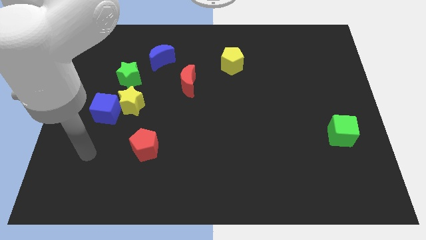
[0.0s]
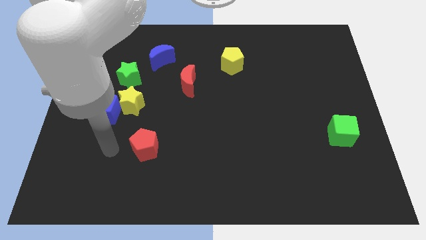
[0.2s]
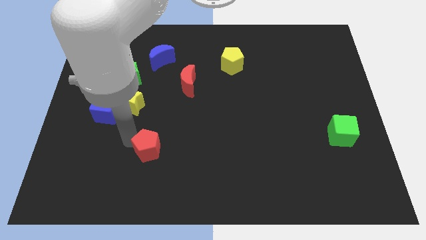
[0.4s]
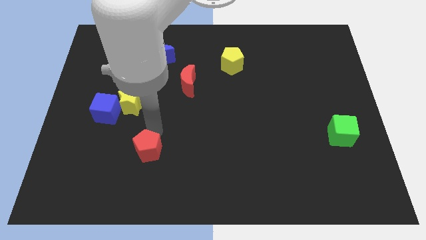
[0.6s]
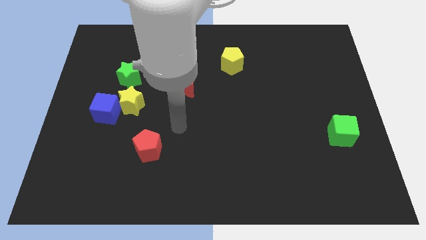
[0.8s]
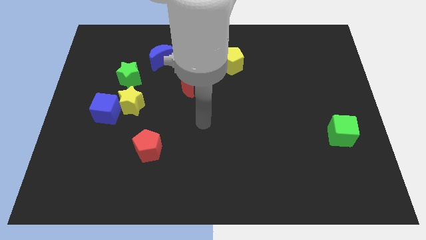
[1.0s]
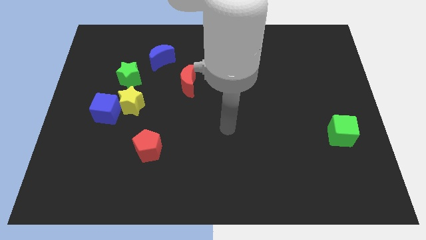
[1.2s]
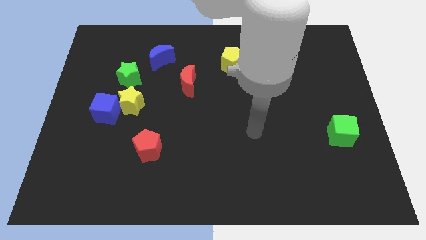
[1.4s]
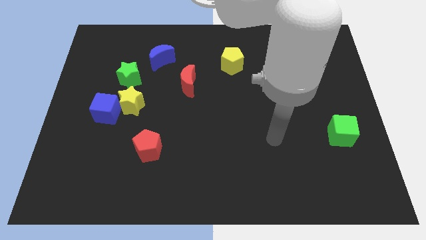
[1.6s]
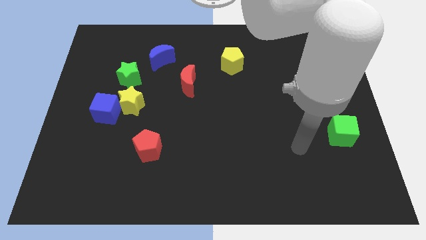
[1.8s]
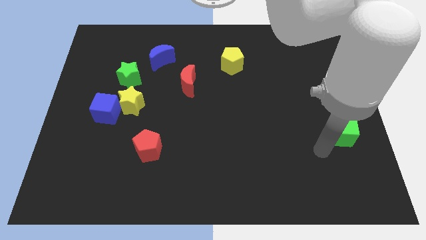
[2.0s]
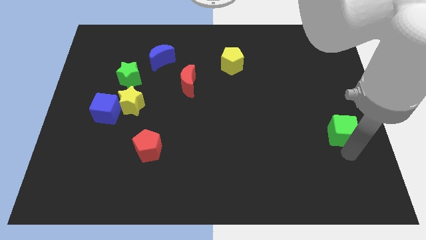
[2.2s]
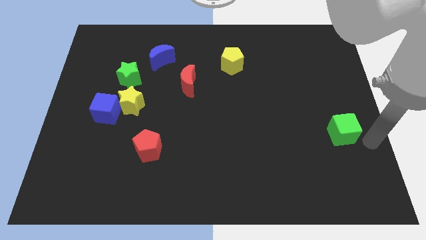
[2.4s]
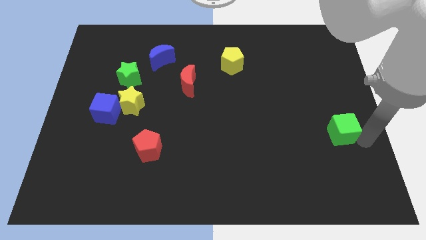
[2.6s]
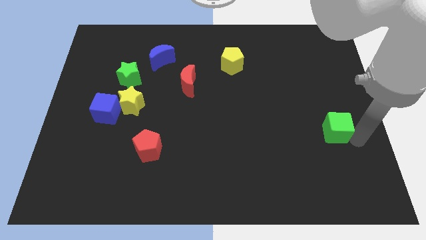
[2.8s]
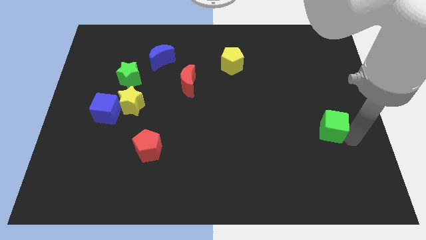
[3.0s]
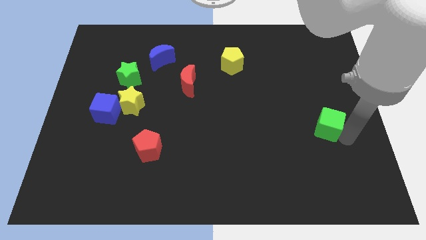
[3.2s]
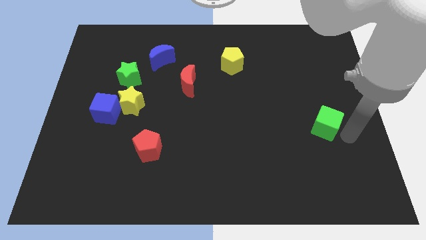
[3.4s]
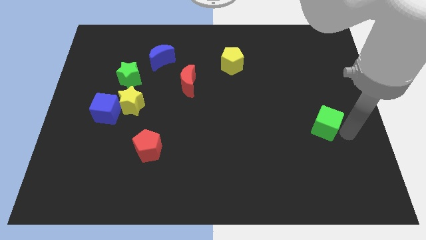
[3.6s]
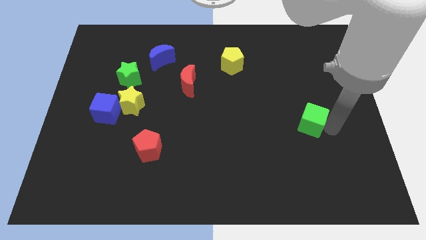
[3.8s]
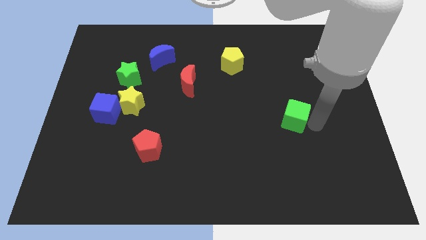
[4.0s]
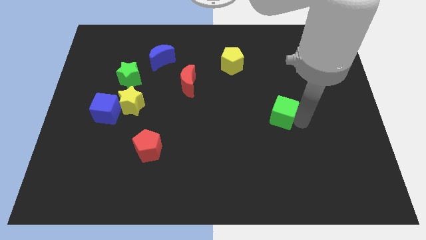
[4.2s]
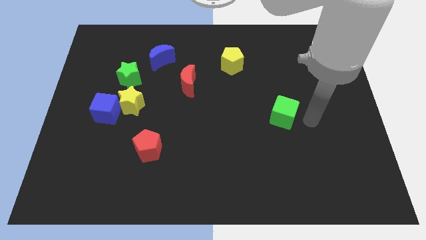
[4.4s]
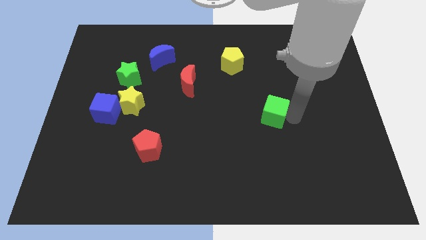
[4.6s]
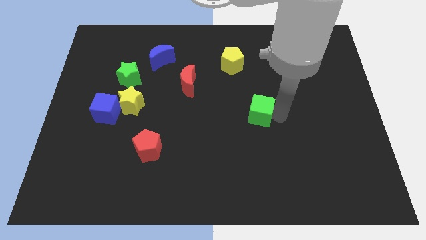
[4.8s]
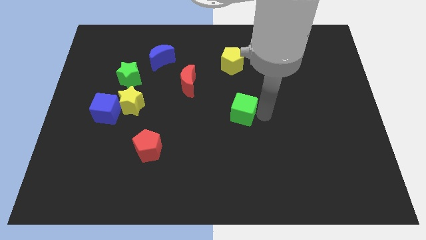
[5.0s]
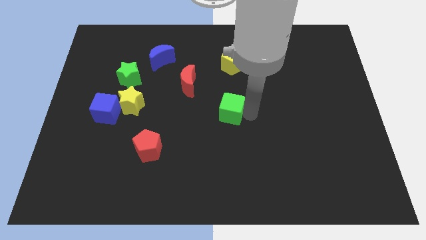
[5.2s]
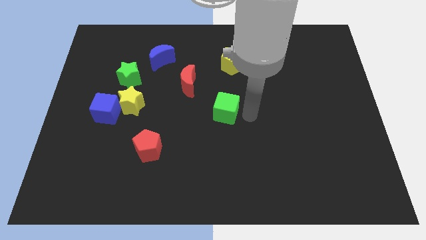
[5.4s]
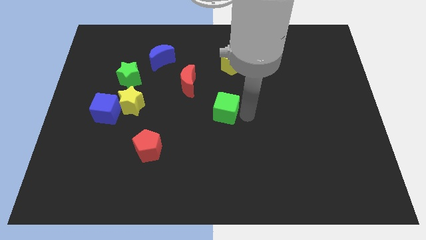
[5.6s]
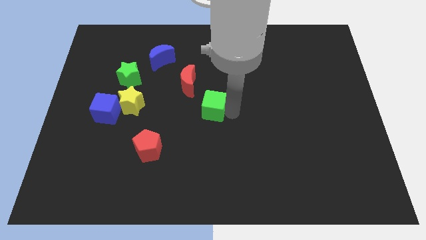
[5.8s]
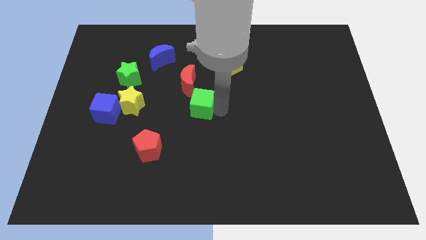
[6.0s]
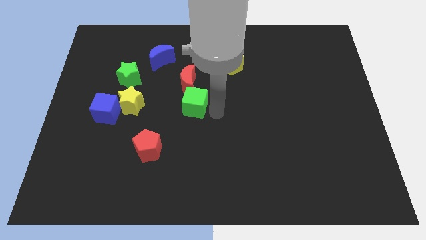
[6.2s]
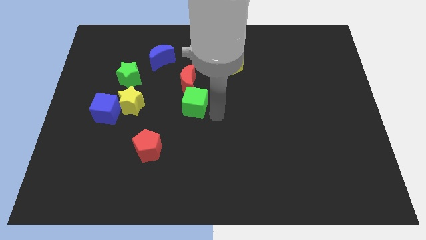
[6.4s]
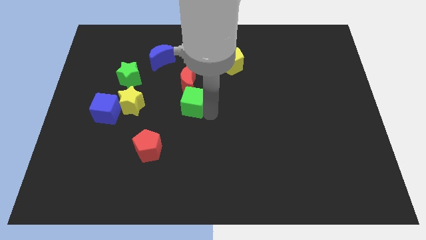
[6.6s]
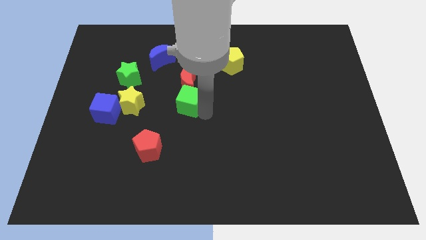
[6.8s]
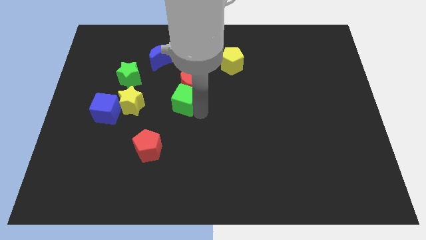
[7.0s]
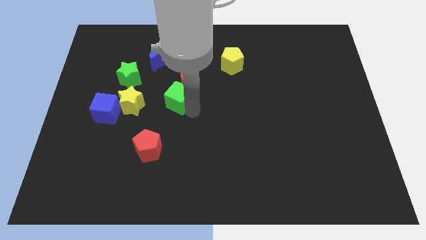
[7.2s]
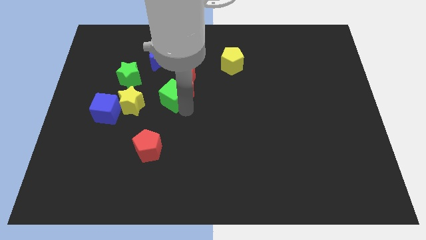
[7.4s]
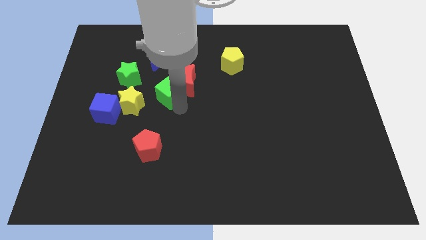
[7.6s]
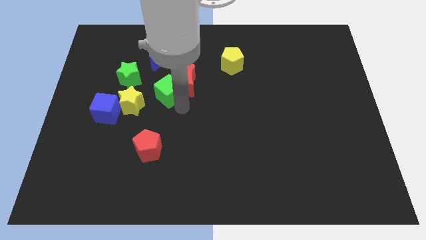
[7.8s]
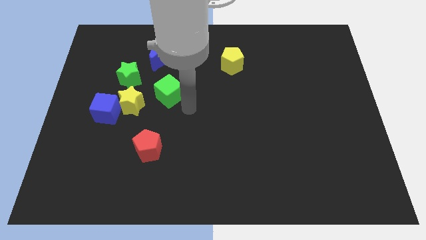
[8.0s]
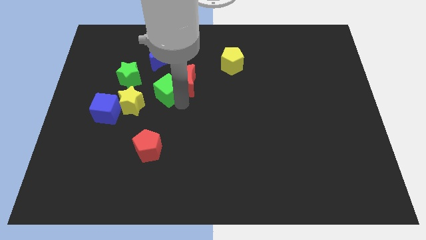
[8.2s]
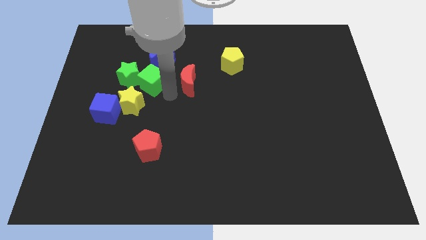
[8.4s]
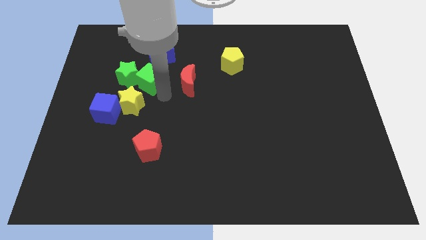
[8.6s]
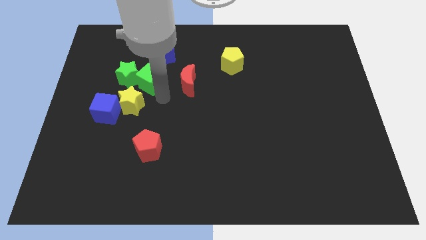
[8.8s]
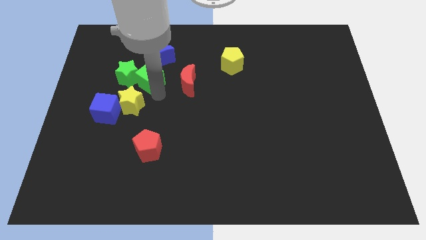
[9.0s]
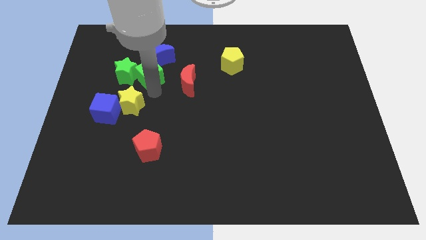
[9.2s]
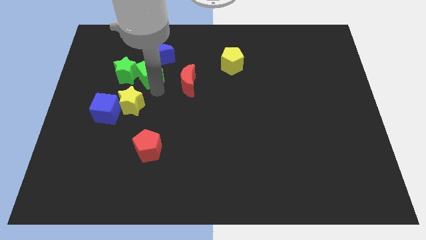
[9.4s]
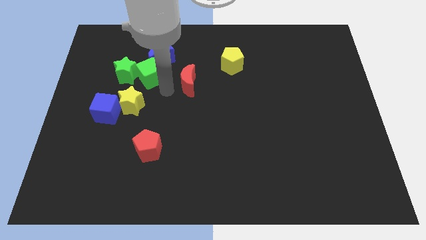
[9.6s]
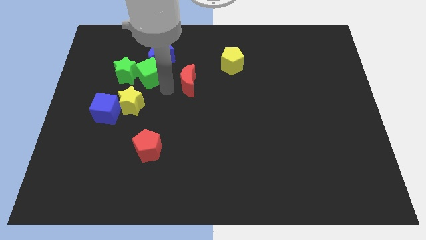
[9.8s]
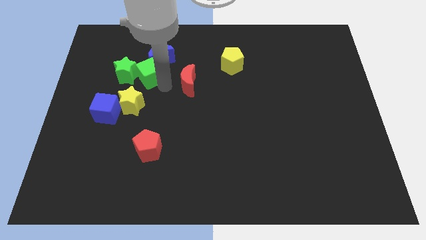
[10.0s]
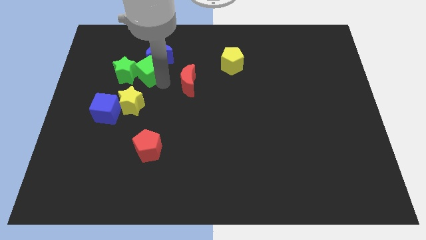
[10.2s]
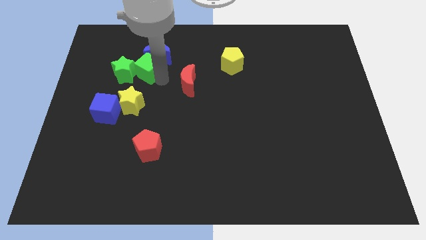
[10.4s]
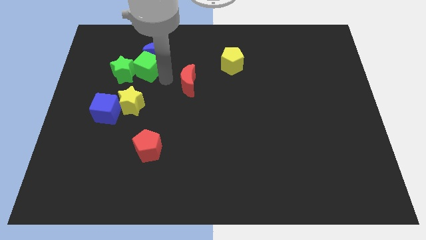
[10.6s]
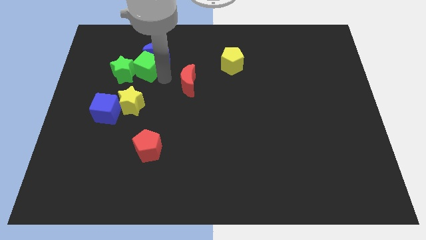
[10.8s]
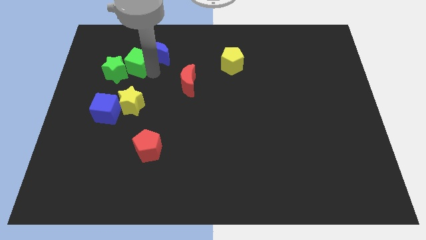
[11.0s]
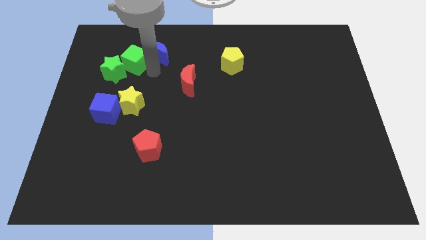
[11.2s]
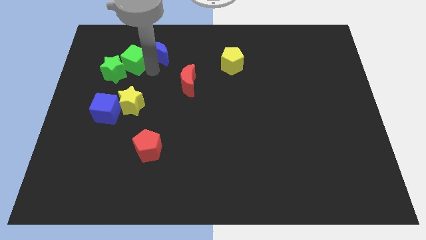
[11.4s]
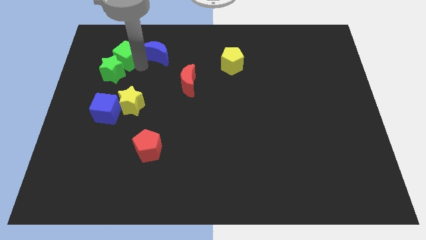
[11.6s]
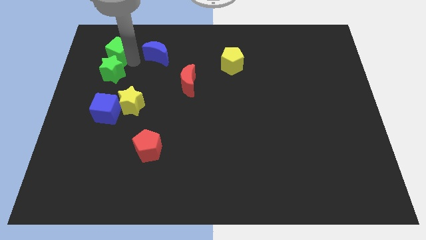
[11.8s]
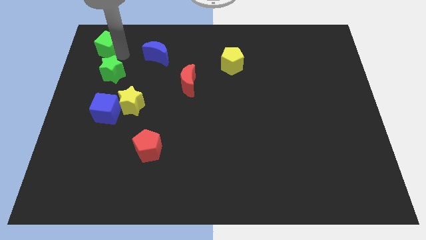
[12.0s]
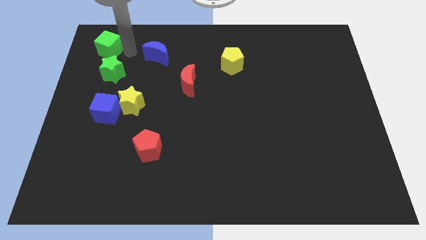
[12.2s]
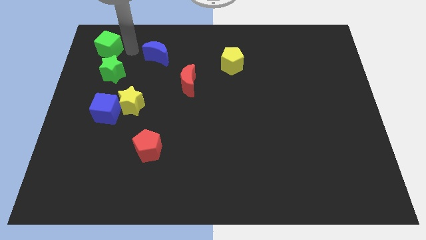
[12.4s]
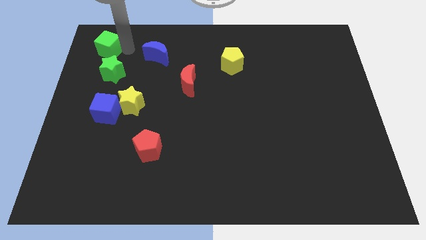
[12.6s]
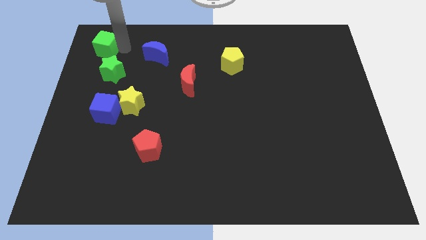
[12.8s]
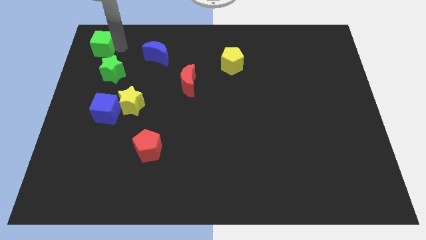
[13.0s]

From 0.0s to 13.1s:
push the green cube to the upper left corner
